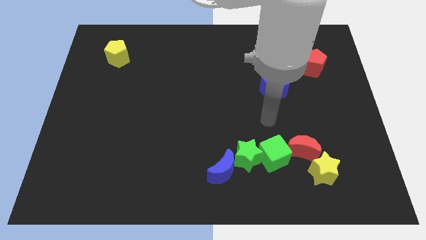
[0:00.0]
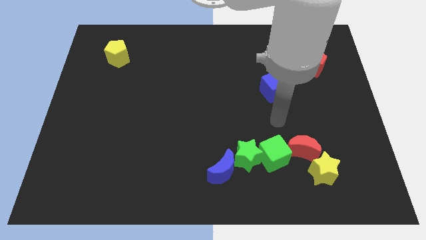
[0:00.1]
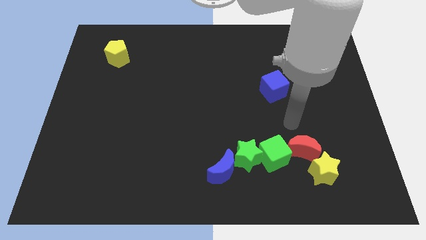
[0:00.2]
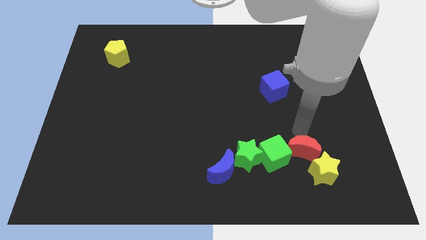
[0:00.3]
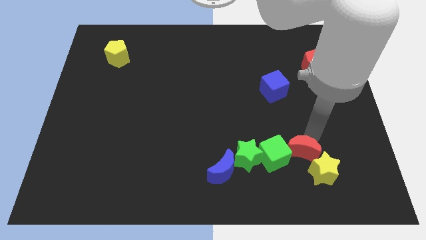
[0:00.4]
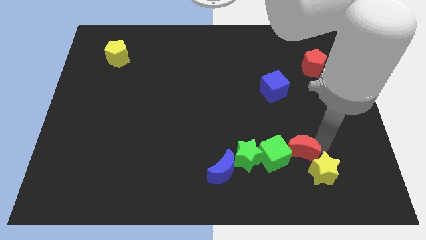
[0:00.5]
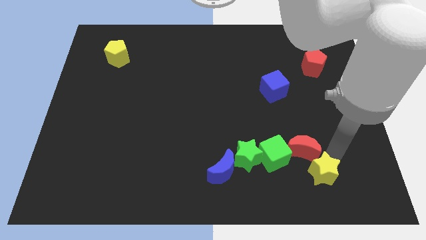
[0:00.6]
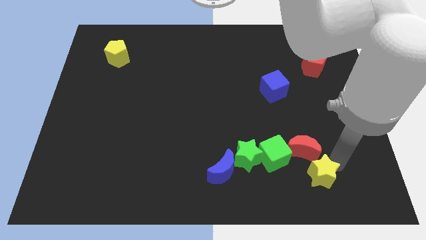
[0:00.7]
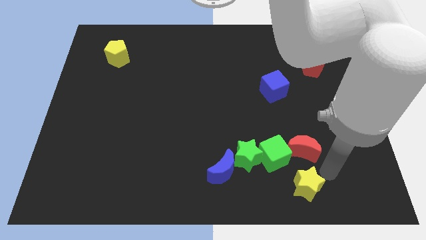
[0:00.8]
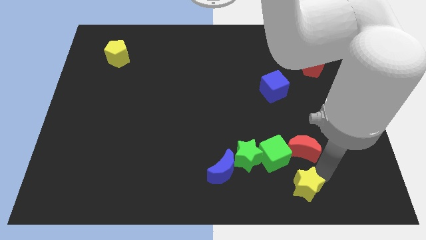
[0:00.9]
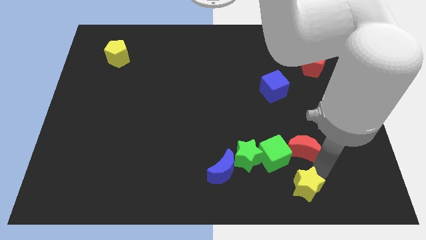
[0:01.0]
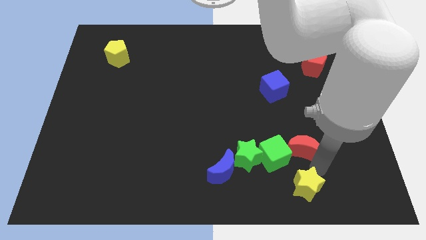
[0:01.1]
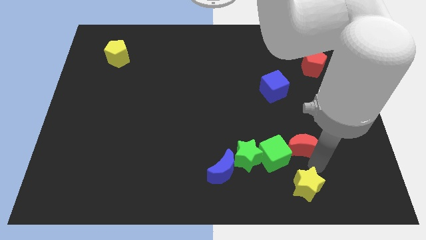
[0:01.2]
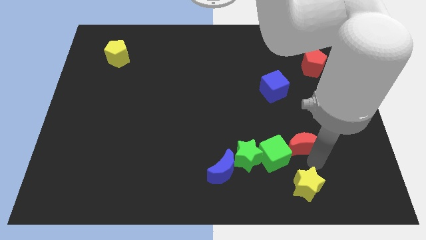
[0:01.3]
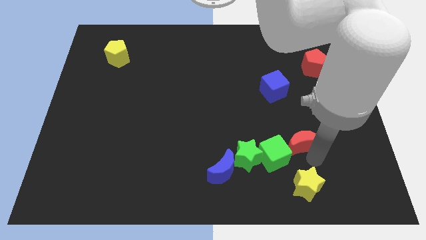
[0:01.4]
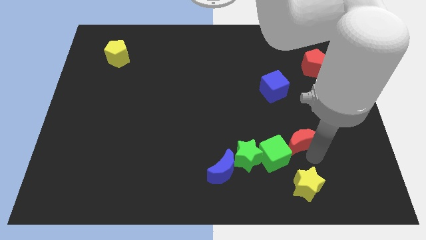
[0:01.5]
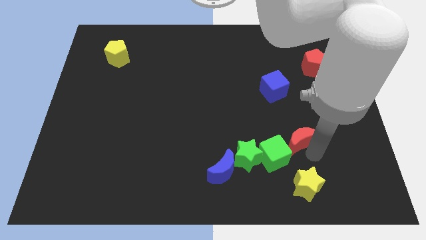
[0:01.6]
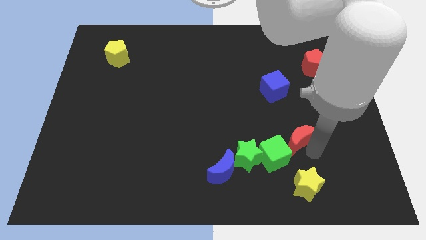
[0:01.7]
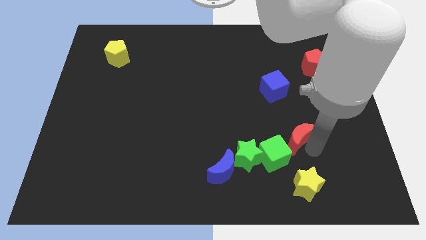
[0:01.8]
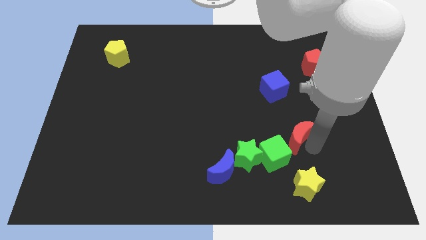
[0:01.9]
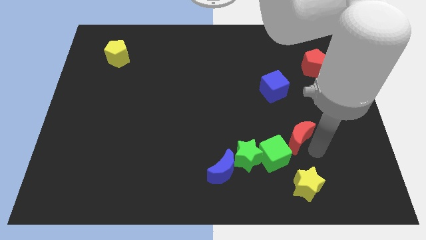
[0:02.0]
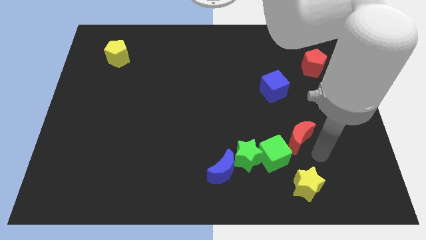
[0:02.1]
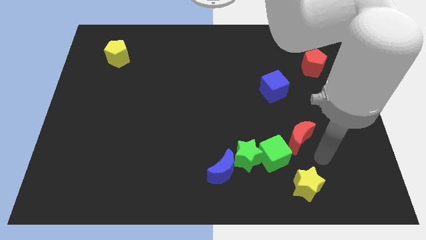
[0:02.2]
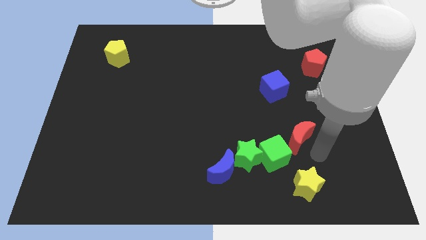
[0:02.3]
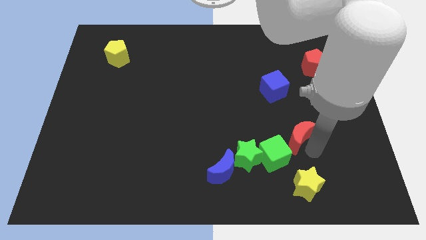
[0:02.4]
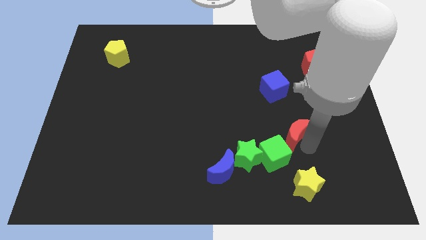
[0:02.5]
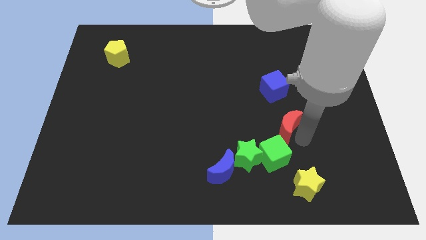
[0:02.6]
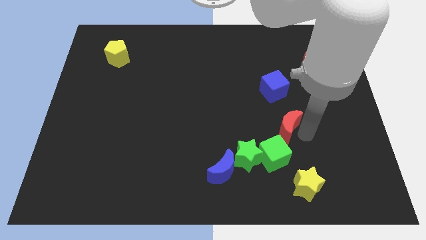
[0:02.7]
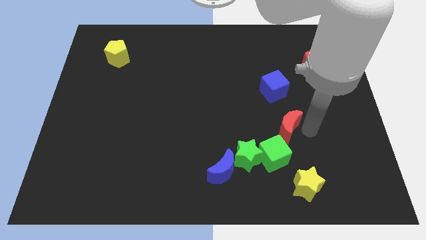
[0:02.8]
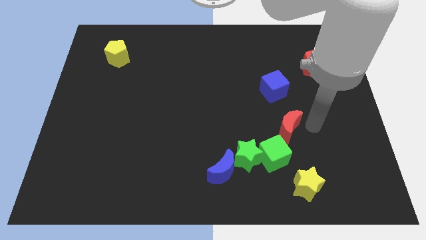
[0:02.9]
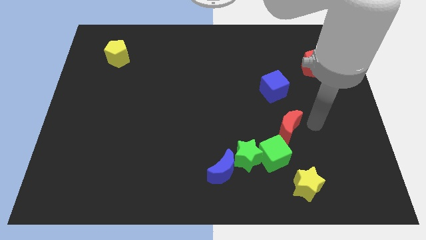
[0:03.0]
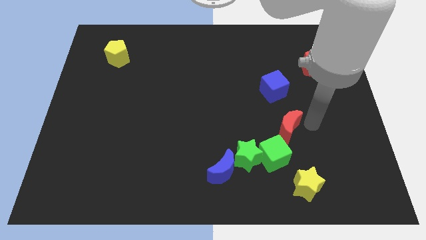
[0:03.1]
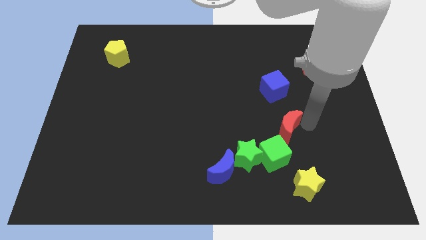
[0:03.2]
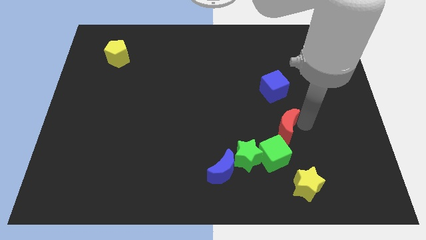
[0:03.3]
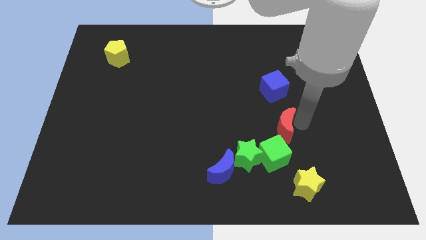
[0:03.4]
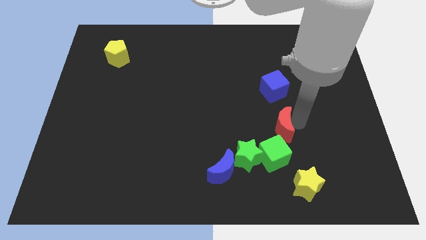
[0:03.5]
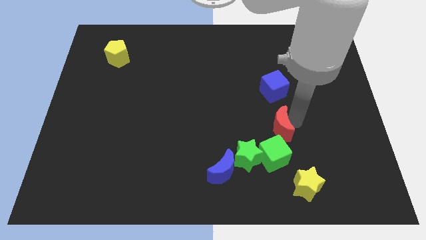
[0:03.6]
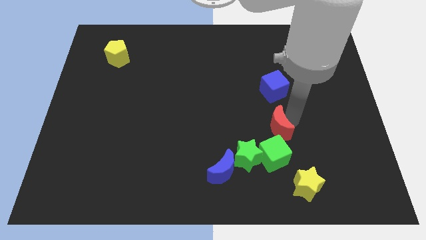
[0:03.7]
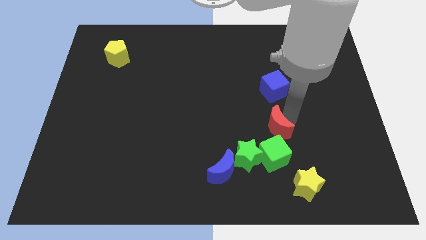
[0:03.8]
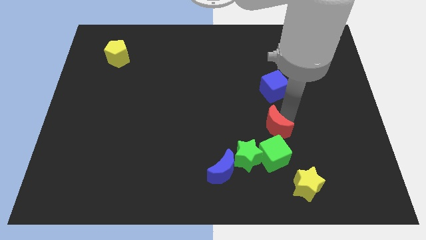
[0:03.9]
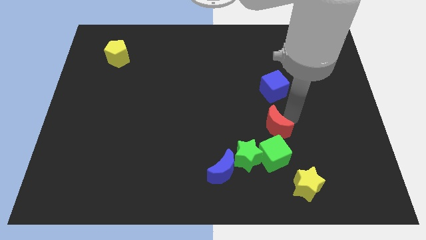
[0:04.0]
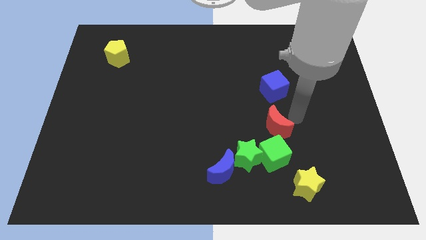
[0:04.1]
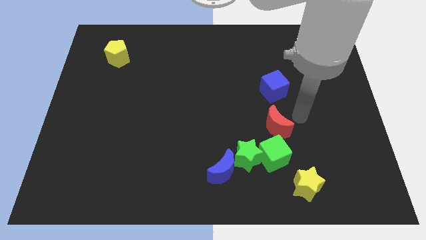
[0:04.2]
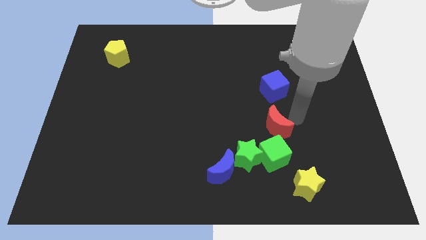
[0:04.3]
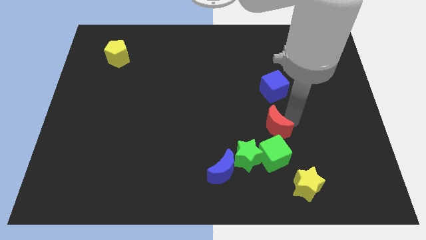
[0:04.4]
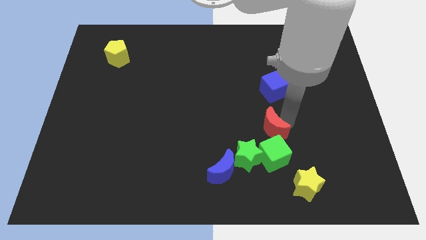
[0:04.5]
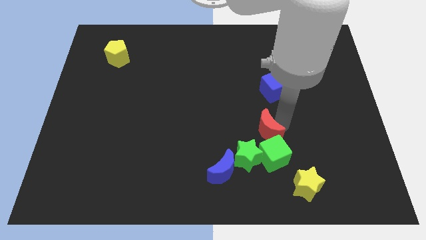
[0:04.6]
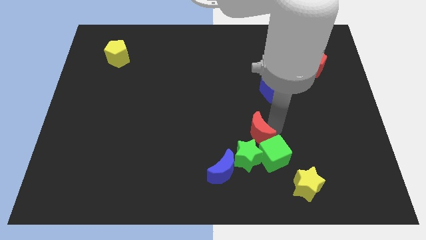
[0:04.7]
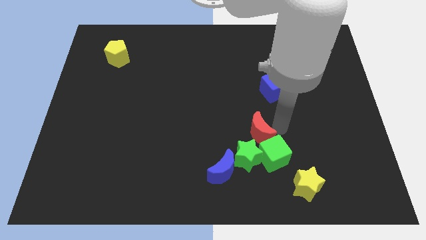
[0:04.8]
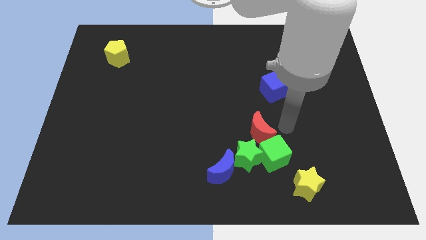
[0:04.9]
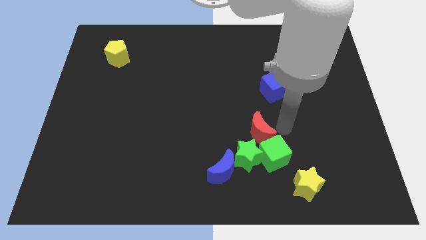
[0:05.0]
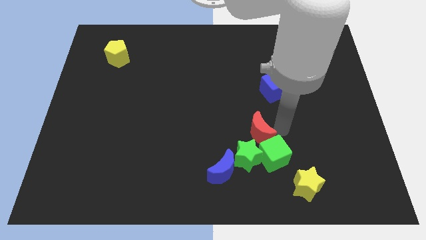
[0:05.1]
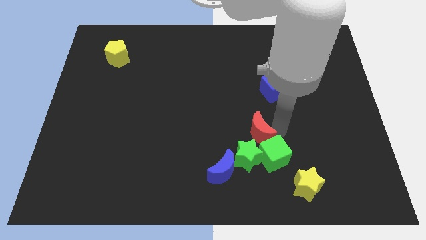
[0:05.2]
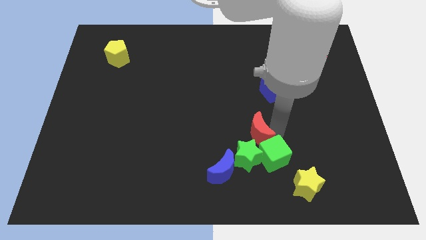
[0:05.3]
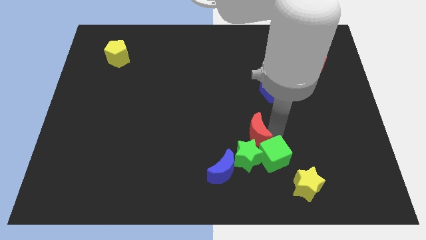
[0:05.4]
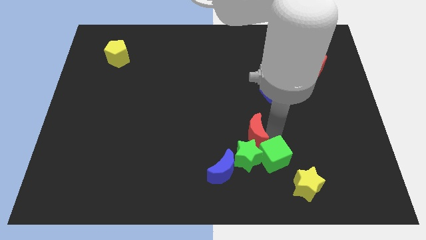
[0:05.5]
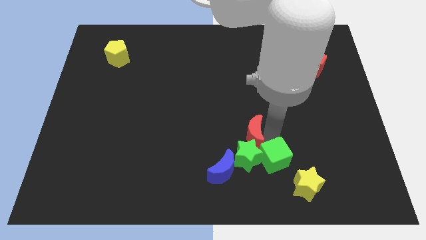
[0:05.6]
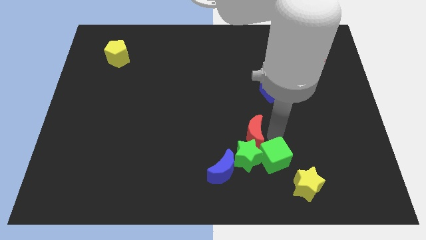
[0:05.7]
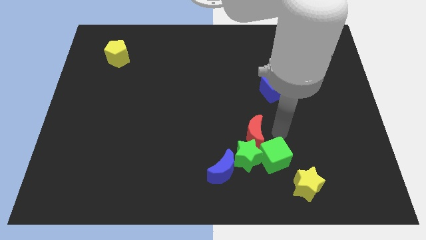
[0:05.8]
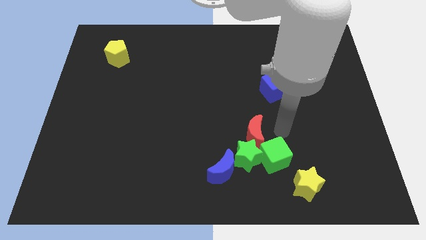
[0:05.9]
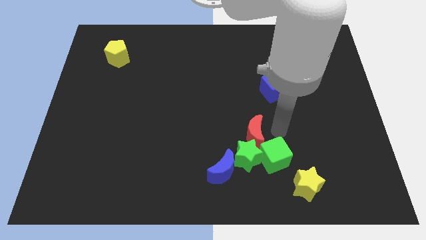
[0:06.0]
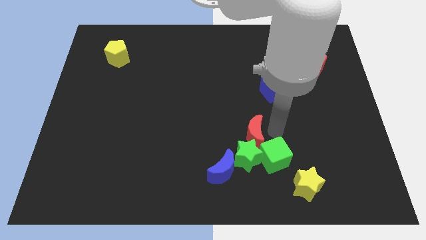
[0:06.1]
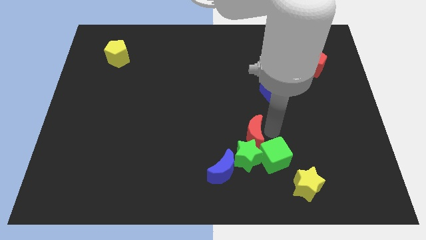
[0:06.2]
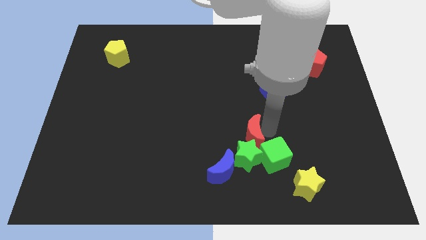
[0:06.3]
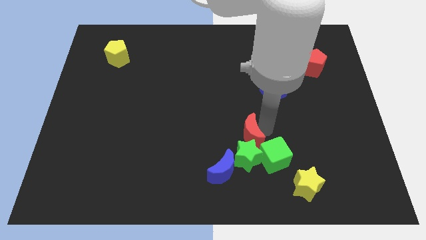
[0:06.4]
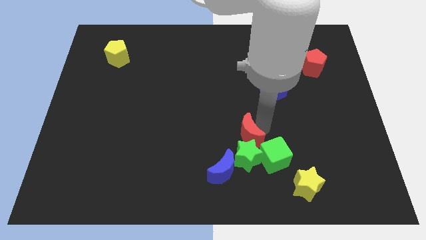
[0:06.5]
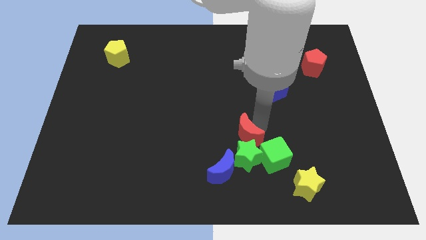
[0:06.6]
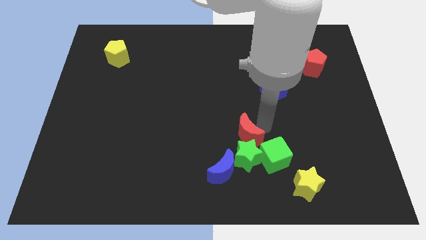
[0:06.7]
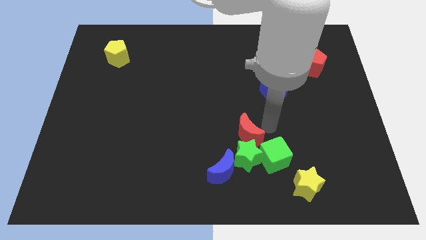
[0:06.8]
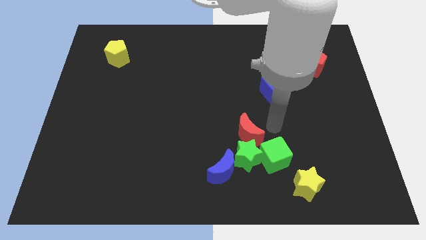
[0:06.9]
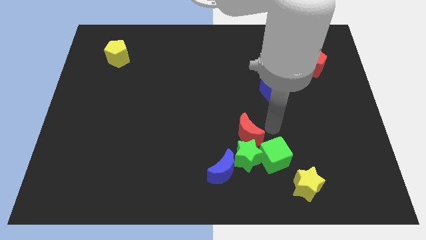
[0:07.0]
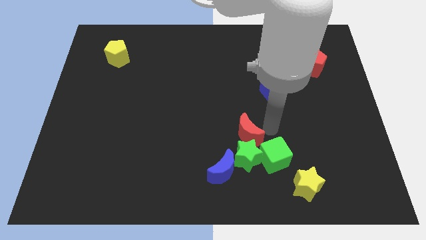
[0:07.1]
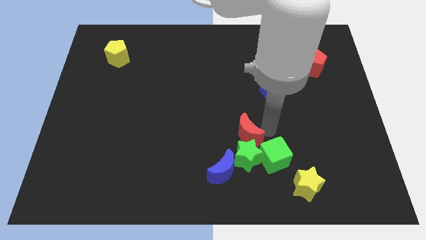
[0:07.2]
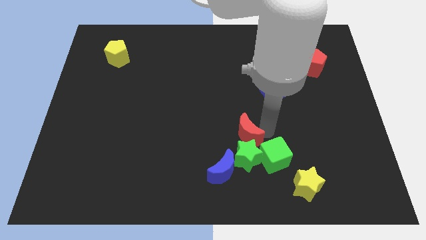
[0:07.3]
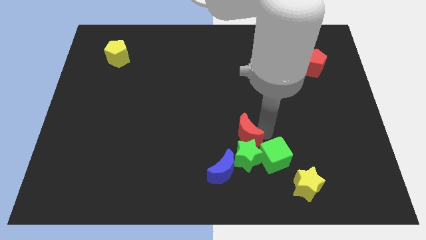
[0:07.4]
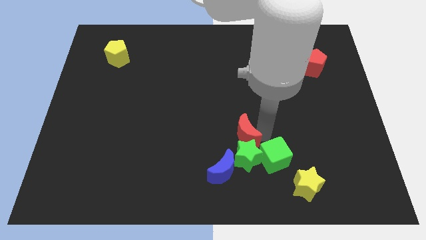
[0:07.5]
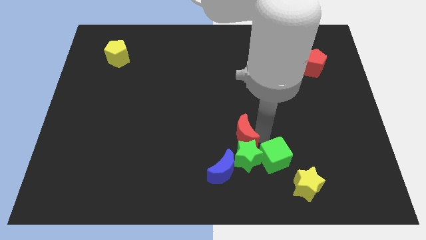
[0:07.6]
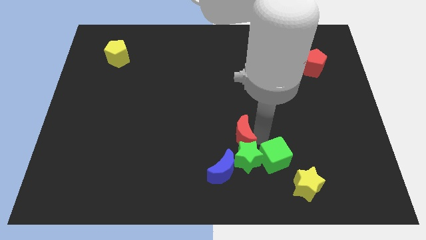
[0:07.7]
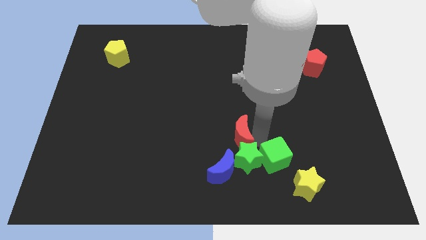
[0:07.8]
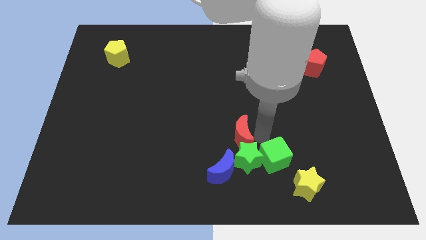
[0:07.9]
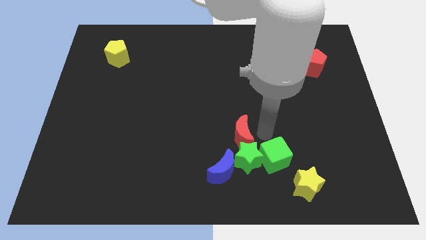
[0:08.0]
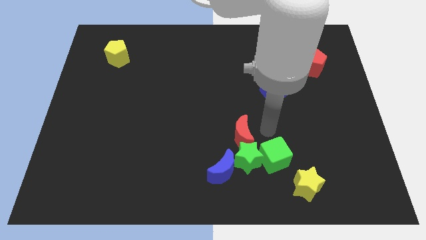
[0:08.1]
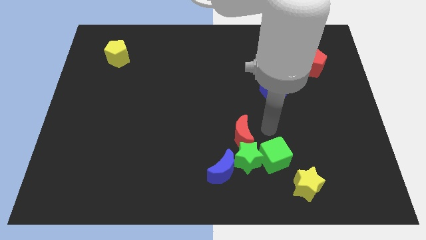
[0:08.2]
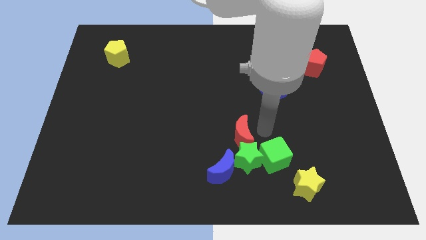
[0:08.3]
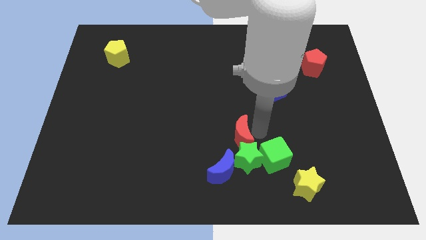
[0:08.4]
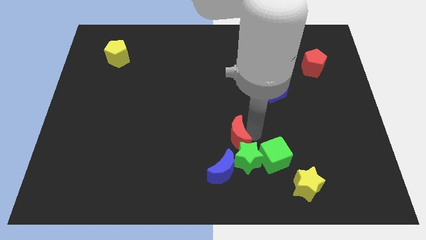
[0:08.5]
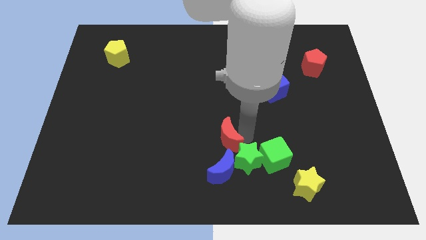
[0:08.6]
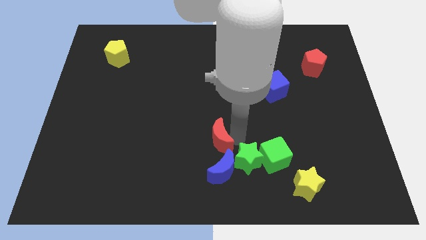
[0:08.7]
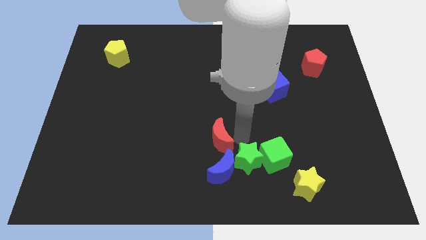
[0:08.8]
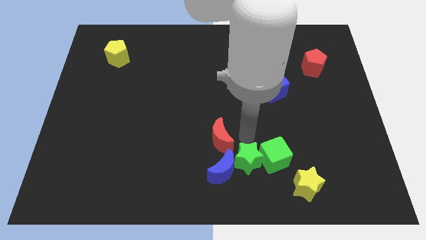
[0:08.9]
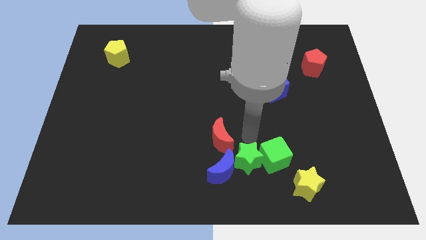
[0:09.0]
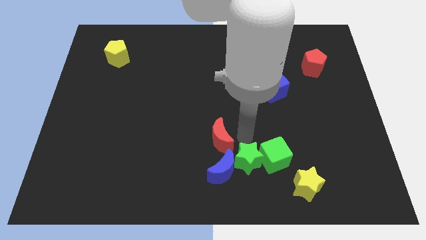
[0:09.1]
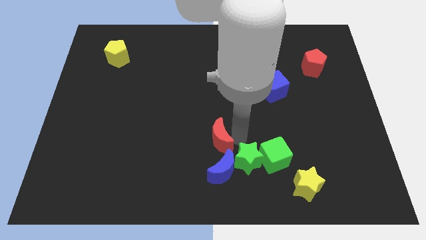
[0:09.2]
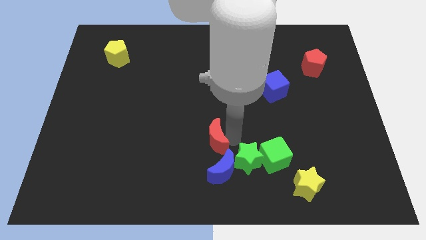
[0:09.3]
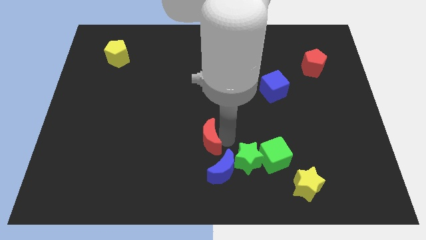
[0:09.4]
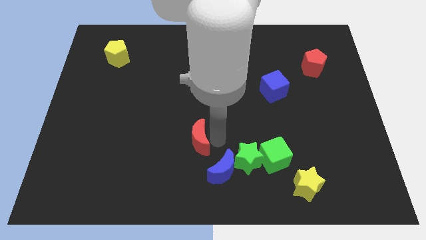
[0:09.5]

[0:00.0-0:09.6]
slide the red moon to the left
